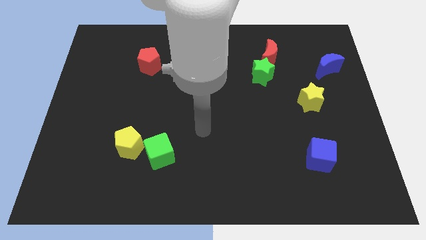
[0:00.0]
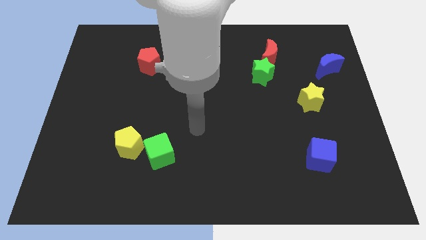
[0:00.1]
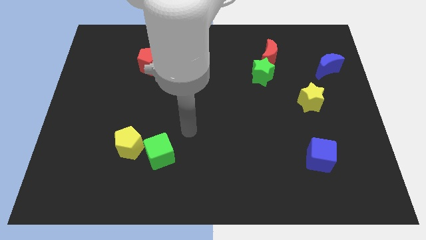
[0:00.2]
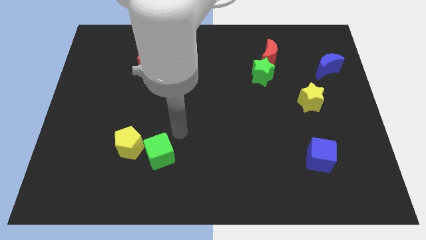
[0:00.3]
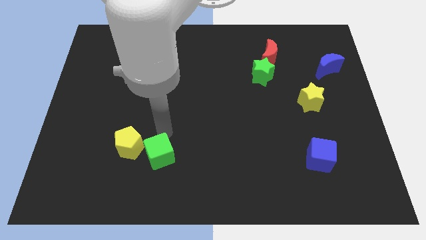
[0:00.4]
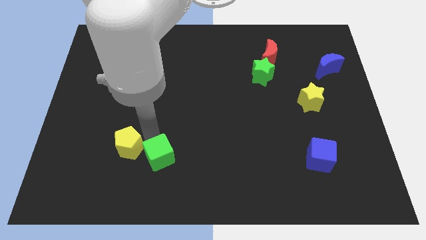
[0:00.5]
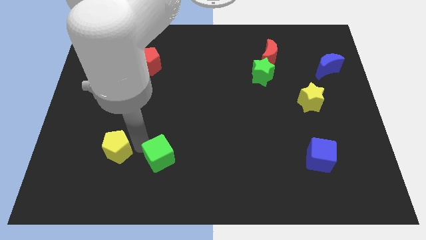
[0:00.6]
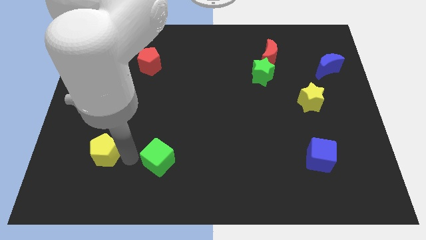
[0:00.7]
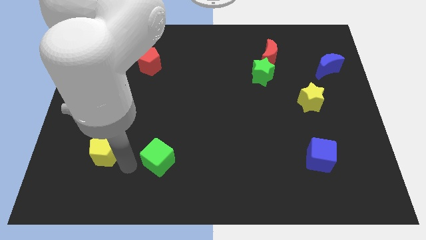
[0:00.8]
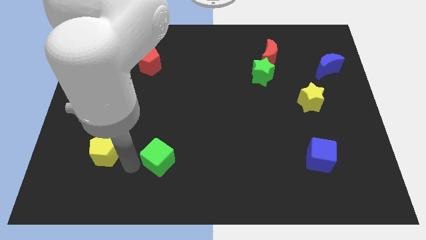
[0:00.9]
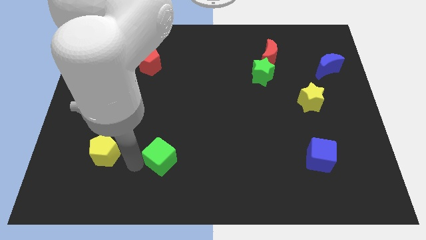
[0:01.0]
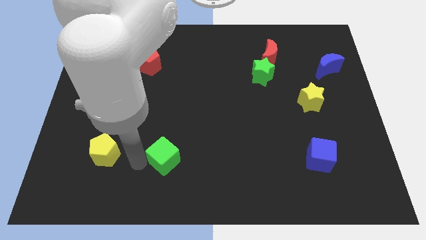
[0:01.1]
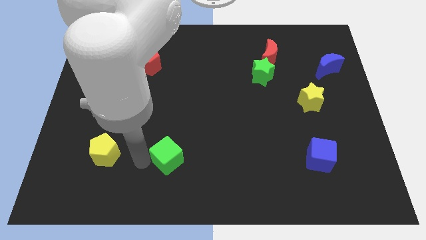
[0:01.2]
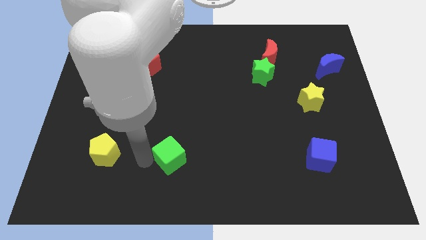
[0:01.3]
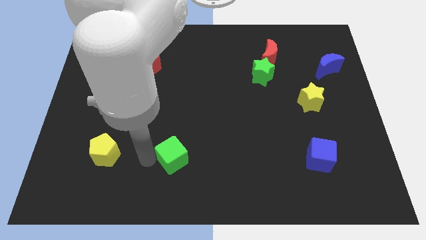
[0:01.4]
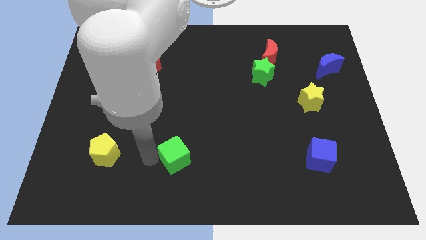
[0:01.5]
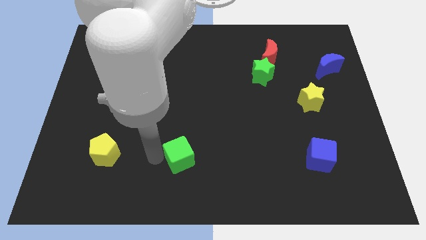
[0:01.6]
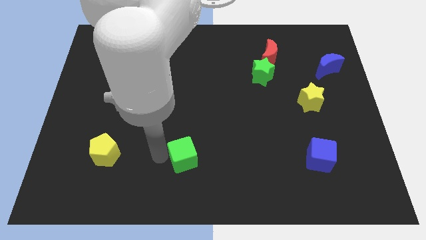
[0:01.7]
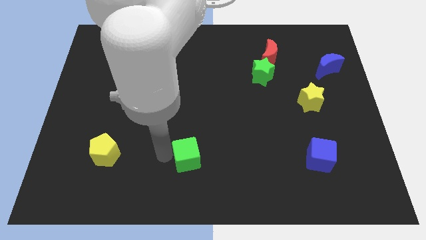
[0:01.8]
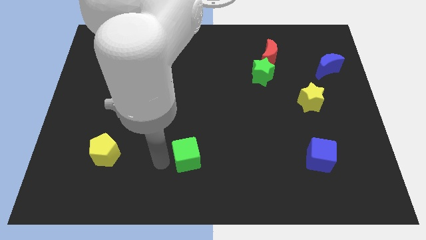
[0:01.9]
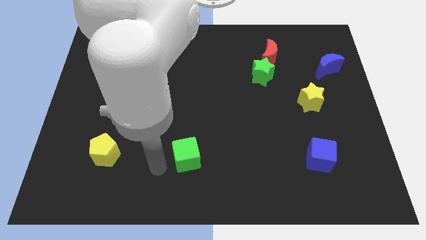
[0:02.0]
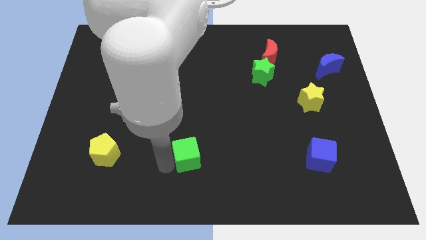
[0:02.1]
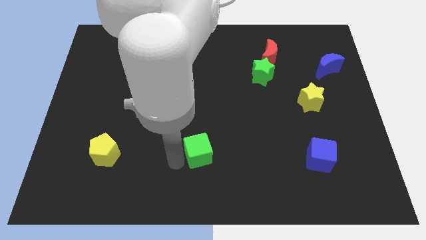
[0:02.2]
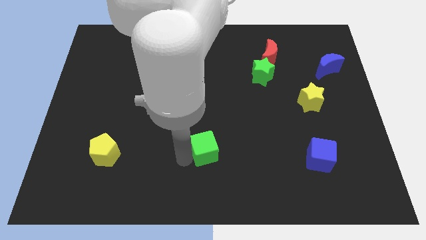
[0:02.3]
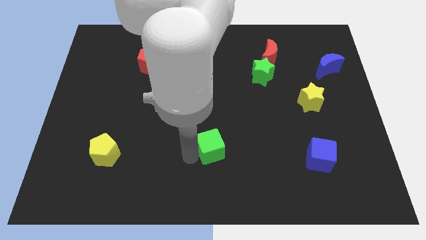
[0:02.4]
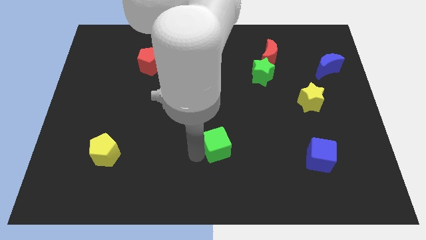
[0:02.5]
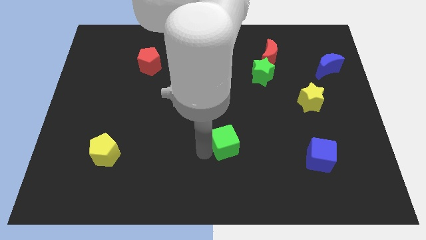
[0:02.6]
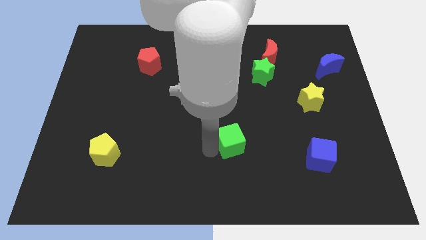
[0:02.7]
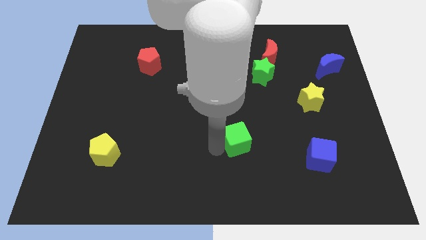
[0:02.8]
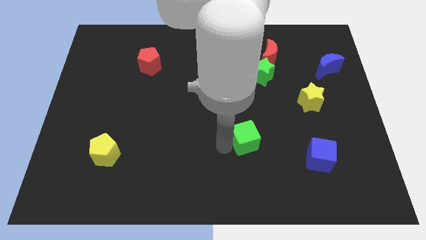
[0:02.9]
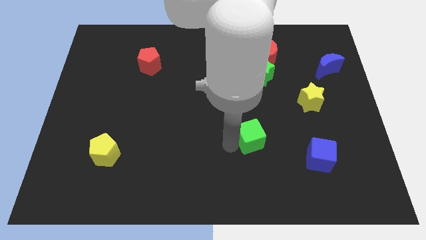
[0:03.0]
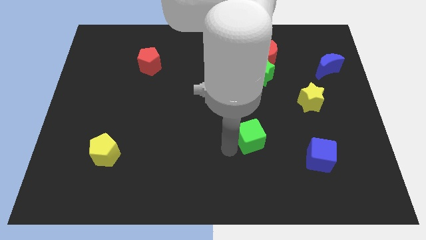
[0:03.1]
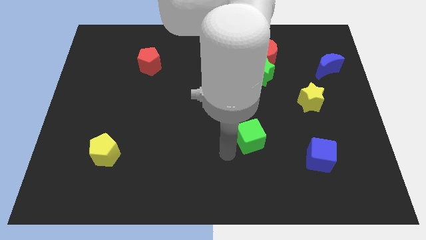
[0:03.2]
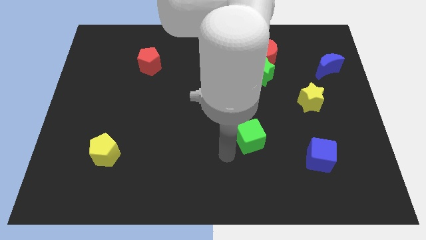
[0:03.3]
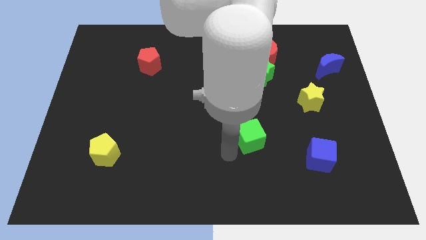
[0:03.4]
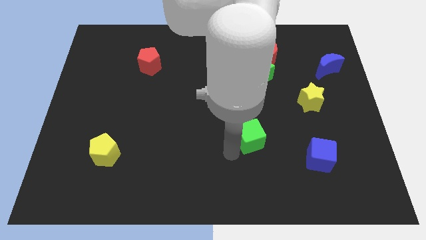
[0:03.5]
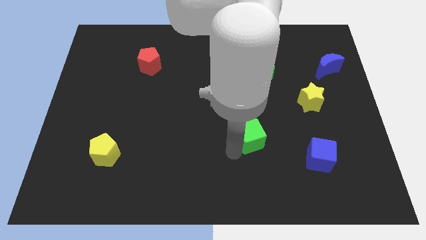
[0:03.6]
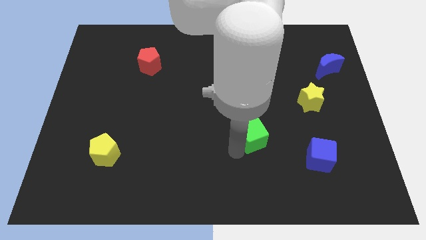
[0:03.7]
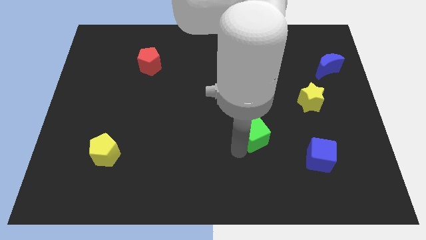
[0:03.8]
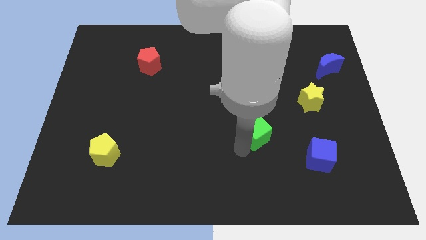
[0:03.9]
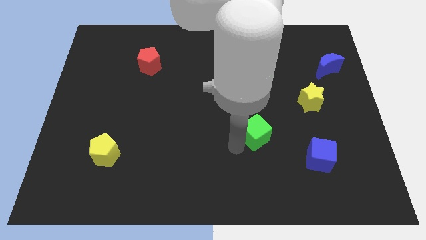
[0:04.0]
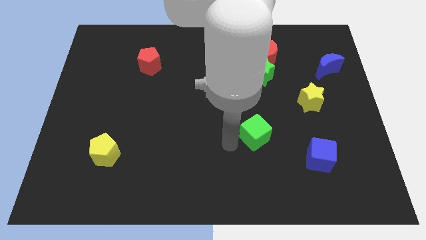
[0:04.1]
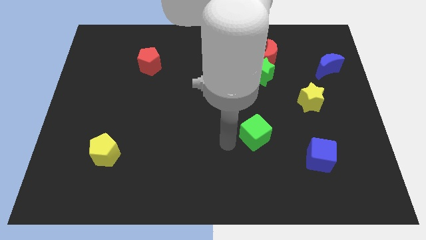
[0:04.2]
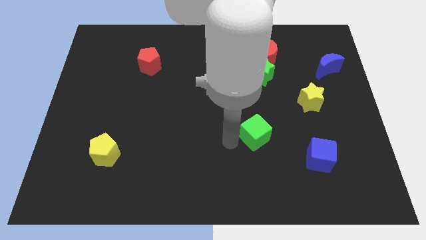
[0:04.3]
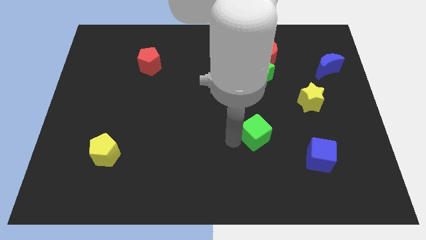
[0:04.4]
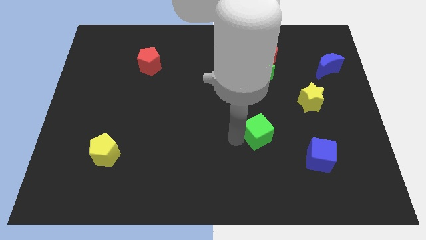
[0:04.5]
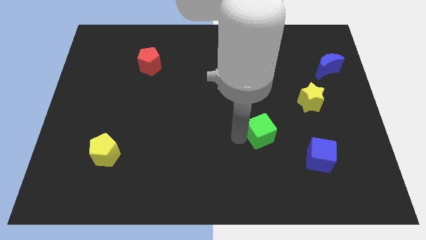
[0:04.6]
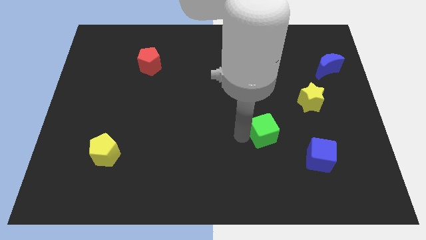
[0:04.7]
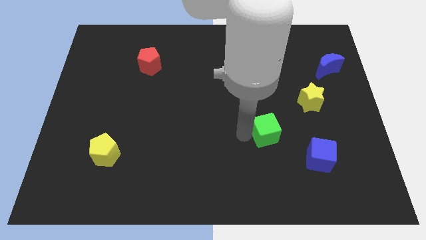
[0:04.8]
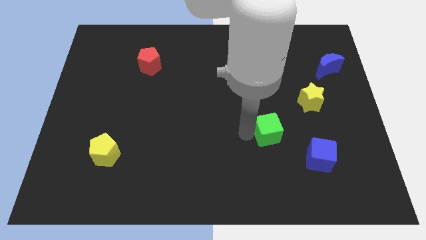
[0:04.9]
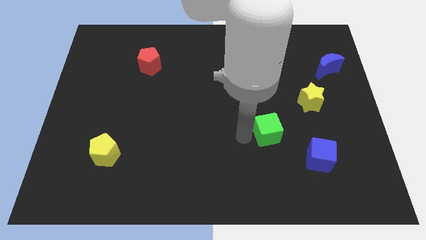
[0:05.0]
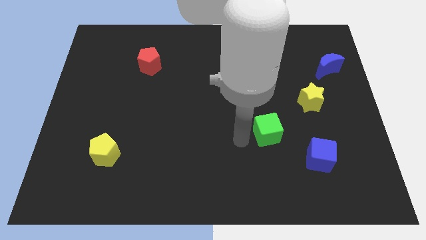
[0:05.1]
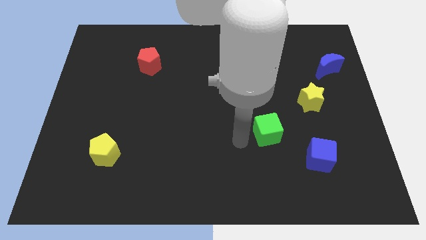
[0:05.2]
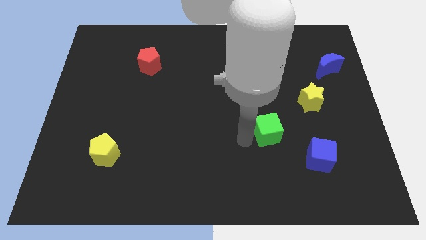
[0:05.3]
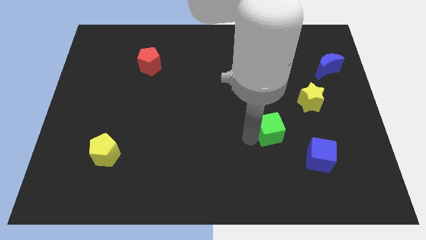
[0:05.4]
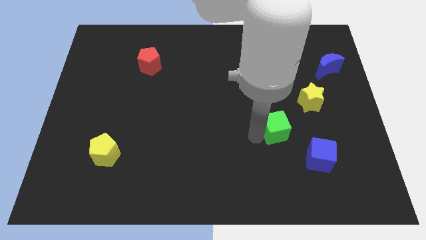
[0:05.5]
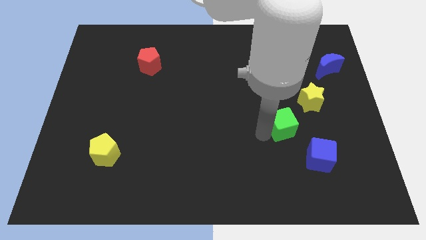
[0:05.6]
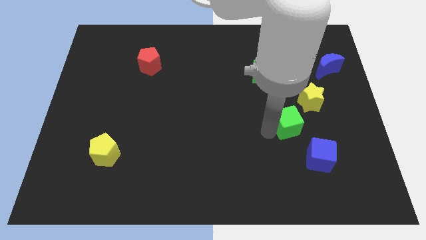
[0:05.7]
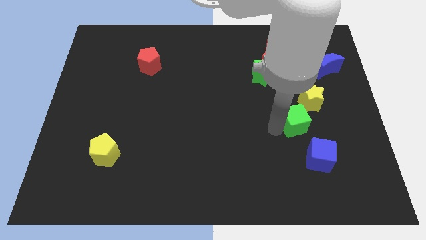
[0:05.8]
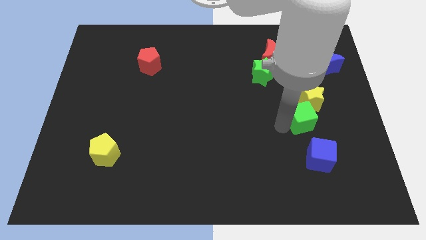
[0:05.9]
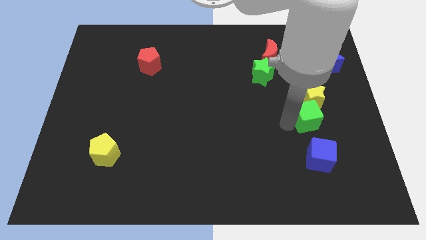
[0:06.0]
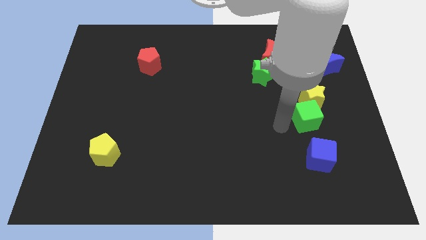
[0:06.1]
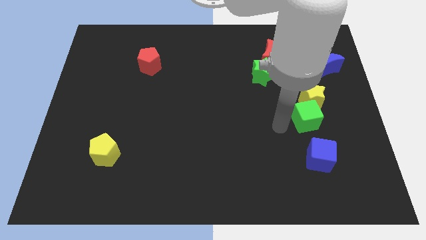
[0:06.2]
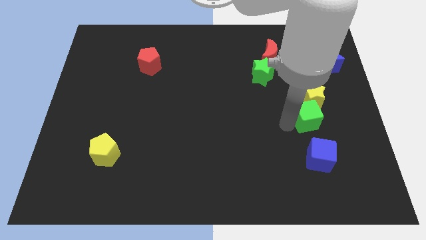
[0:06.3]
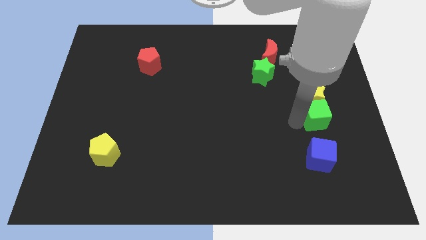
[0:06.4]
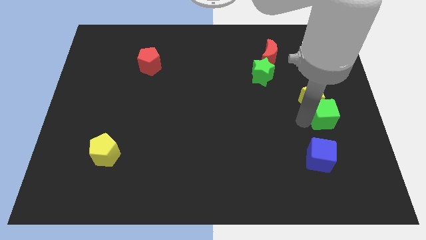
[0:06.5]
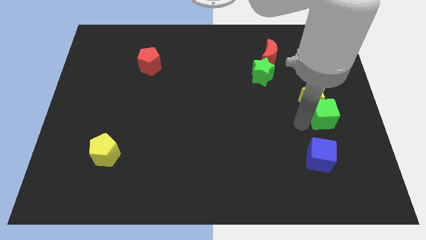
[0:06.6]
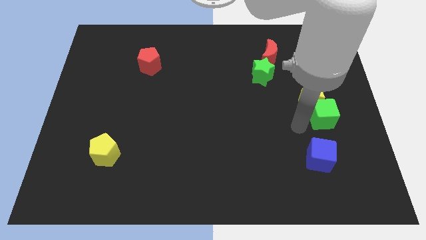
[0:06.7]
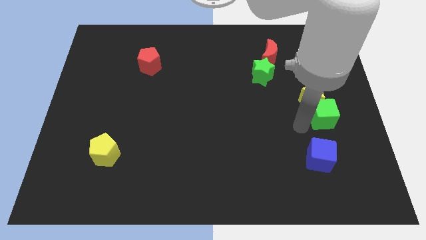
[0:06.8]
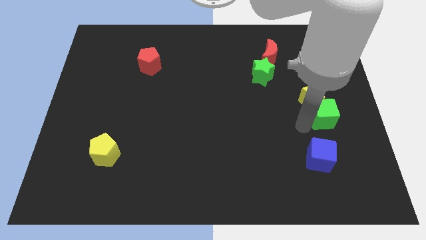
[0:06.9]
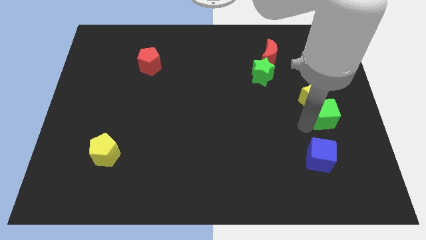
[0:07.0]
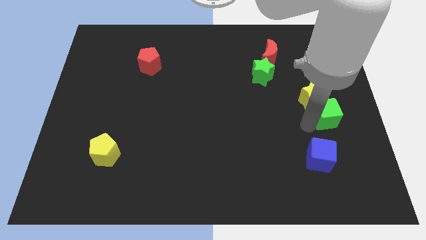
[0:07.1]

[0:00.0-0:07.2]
put the green cube to the right side of the board

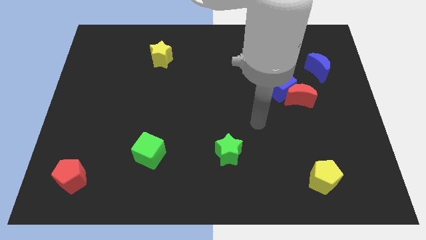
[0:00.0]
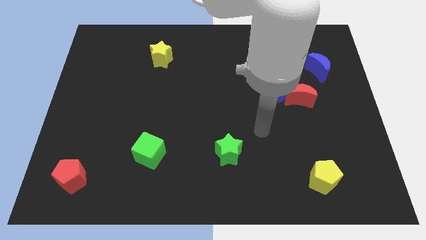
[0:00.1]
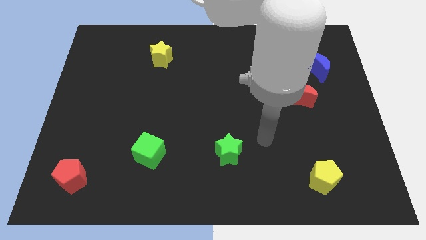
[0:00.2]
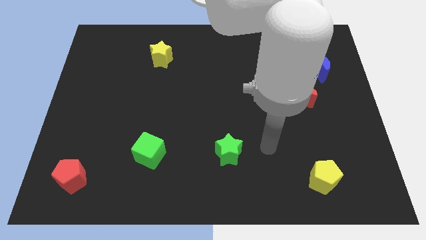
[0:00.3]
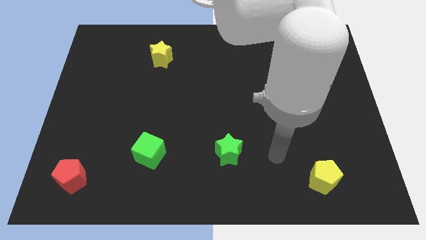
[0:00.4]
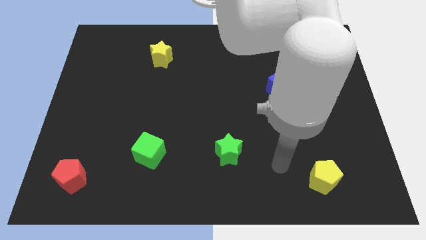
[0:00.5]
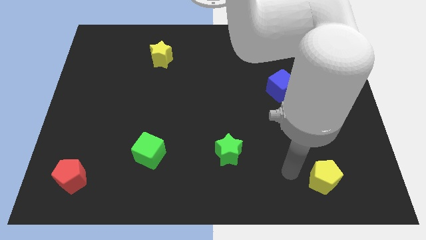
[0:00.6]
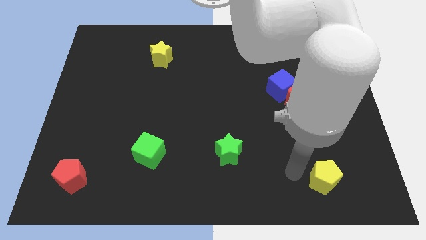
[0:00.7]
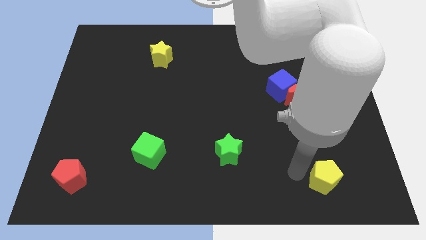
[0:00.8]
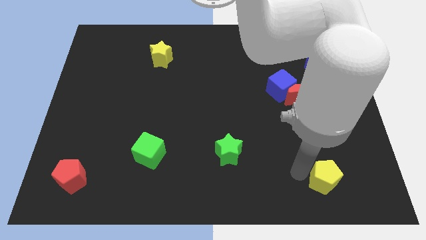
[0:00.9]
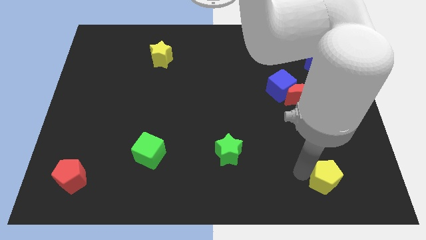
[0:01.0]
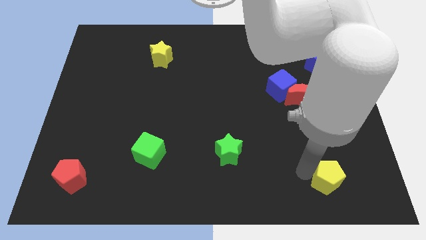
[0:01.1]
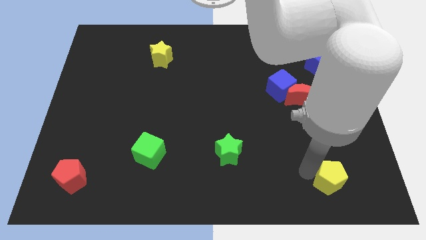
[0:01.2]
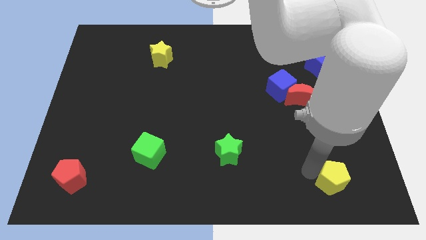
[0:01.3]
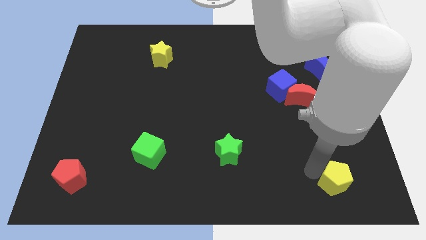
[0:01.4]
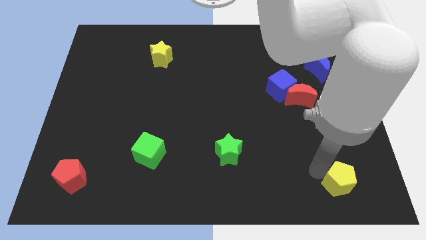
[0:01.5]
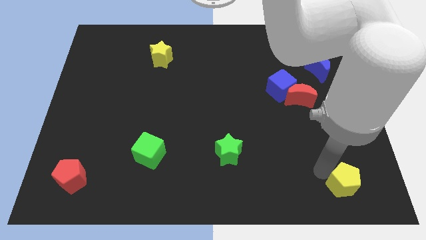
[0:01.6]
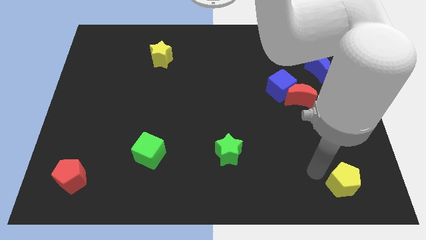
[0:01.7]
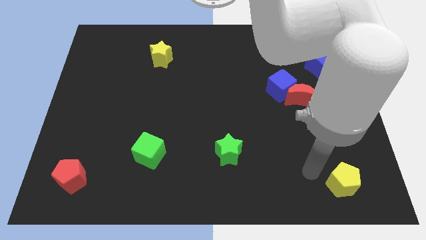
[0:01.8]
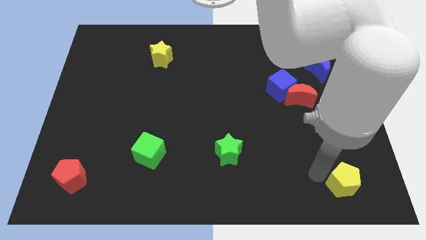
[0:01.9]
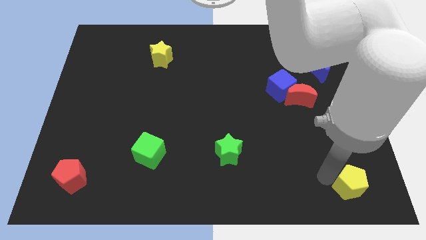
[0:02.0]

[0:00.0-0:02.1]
push the yellow pentagon to the bottom right corner
